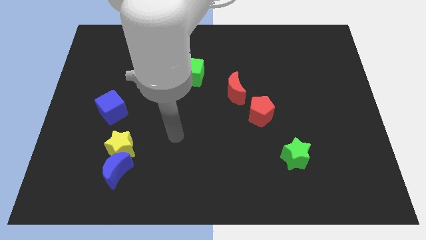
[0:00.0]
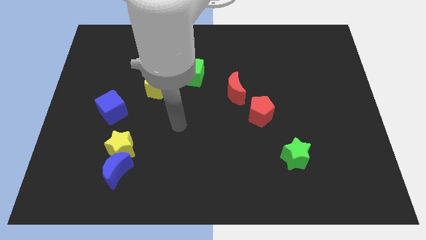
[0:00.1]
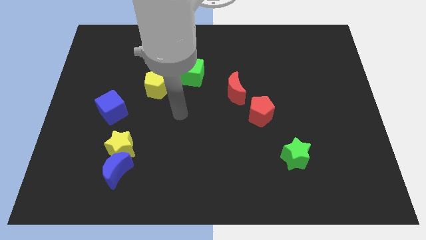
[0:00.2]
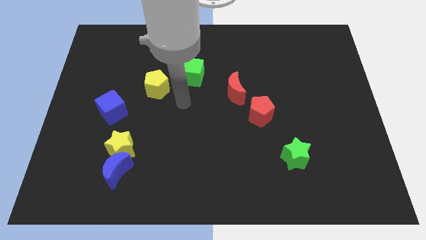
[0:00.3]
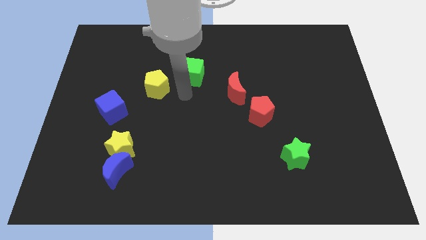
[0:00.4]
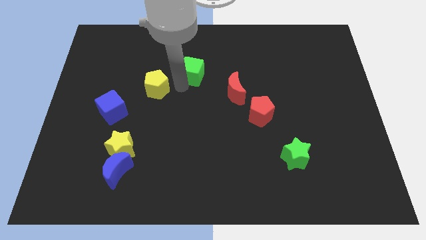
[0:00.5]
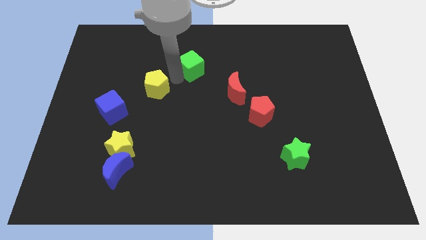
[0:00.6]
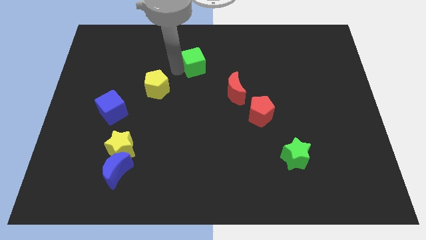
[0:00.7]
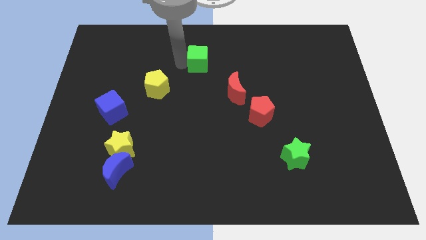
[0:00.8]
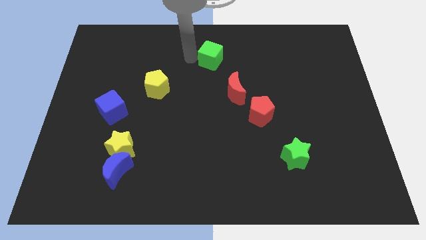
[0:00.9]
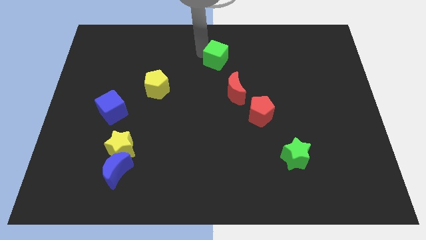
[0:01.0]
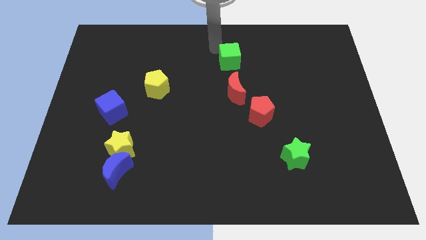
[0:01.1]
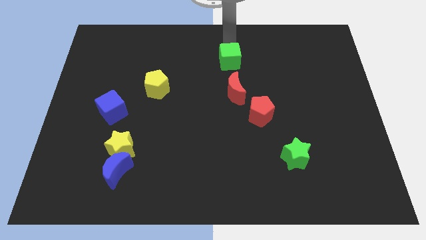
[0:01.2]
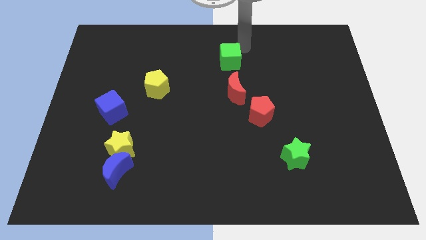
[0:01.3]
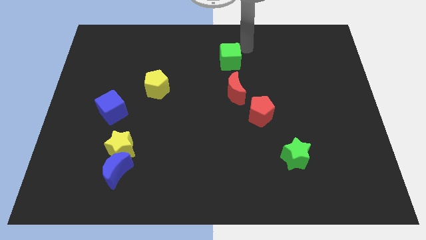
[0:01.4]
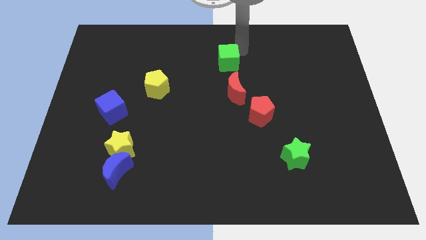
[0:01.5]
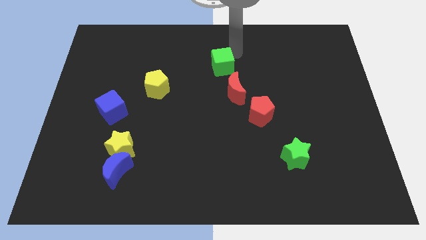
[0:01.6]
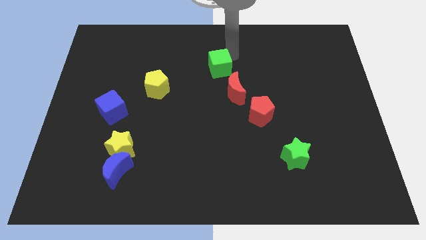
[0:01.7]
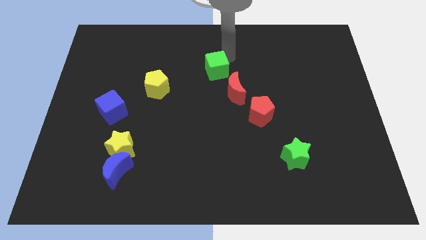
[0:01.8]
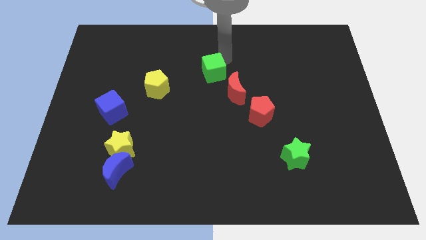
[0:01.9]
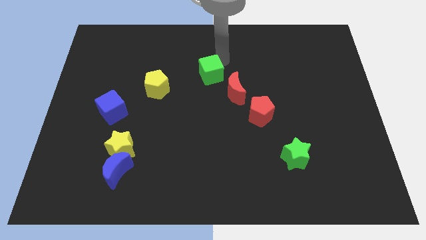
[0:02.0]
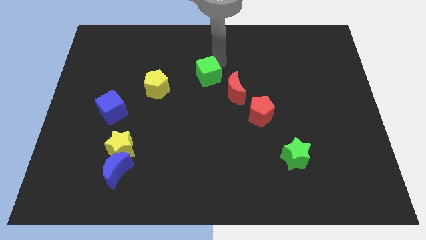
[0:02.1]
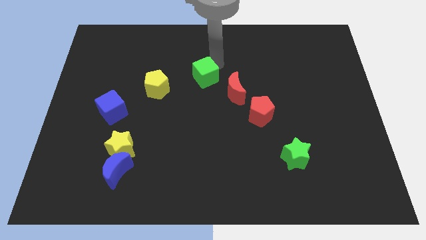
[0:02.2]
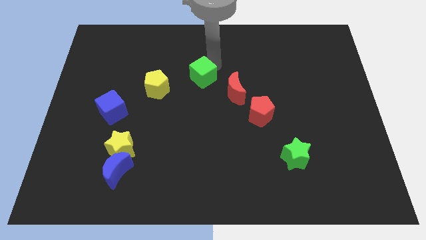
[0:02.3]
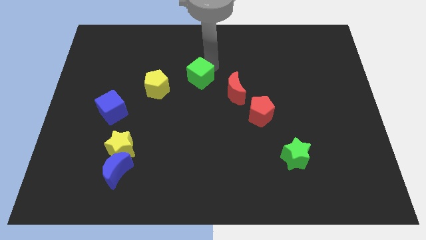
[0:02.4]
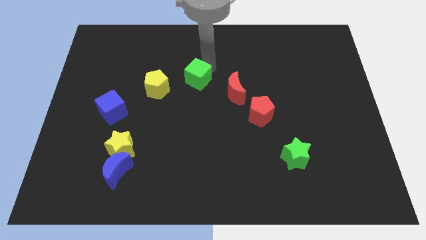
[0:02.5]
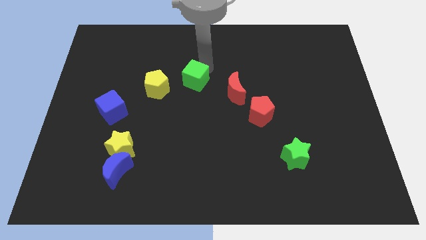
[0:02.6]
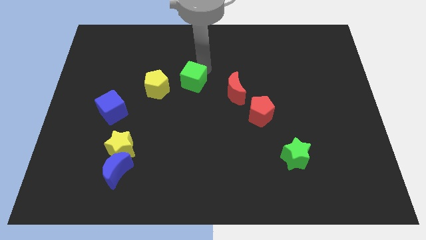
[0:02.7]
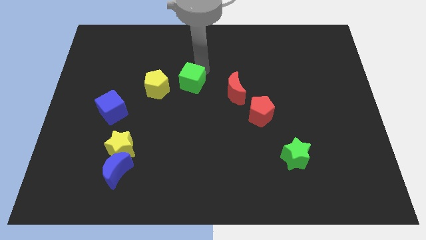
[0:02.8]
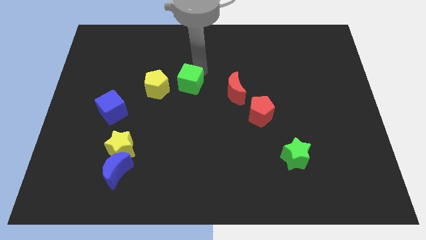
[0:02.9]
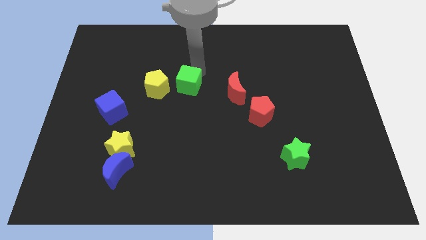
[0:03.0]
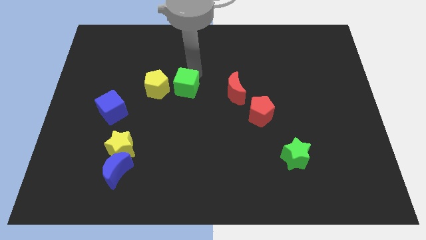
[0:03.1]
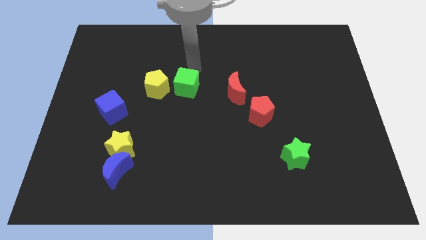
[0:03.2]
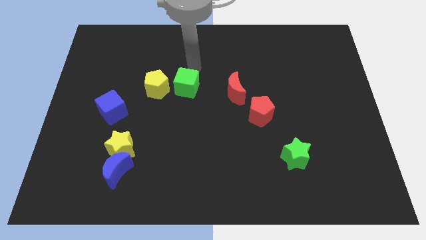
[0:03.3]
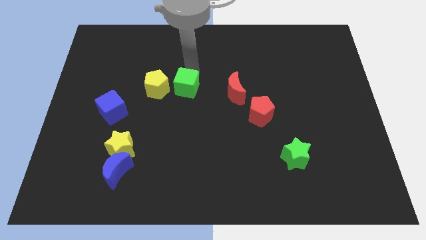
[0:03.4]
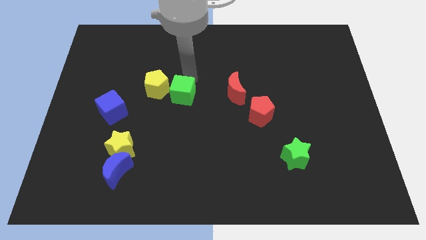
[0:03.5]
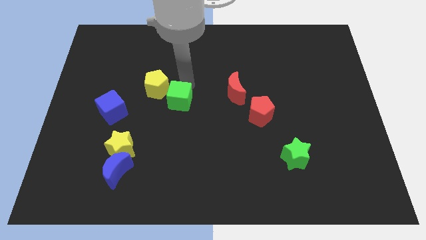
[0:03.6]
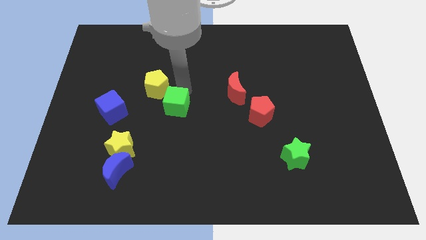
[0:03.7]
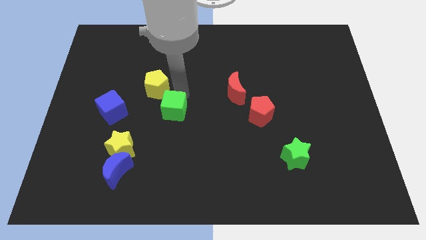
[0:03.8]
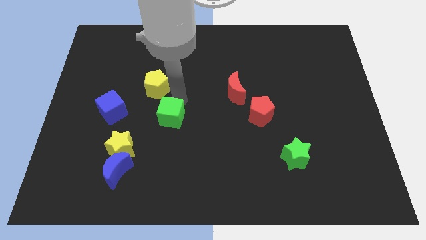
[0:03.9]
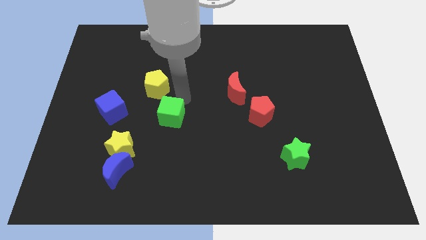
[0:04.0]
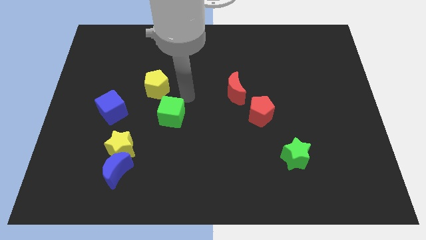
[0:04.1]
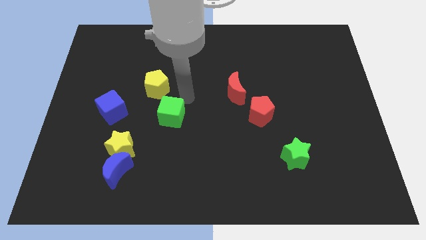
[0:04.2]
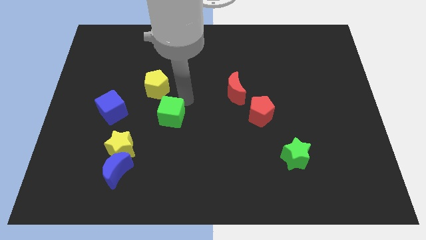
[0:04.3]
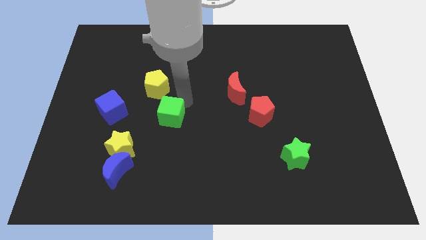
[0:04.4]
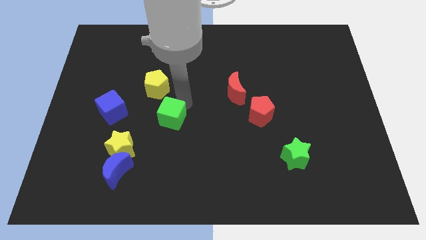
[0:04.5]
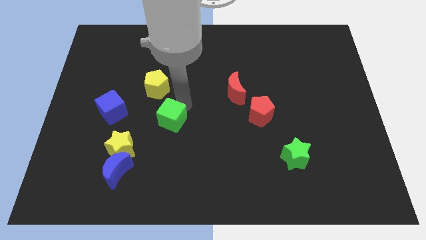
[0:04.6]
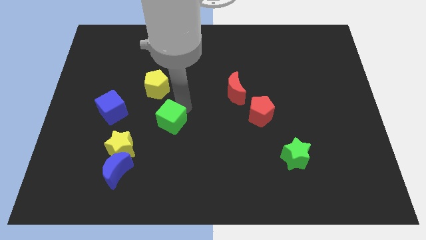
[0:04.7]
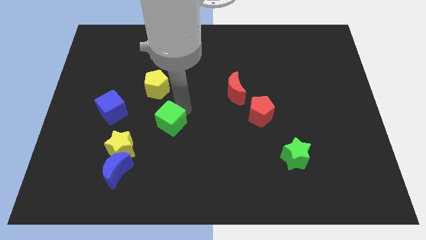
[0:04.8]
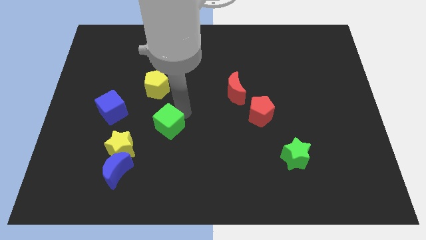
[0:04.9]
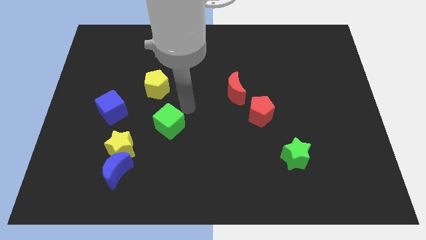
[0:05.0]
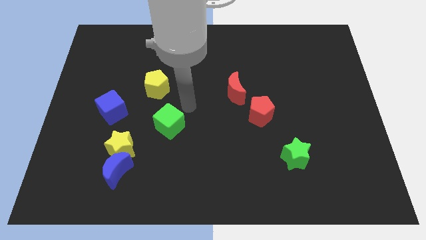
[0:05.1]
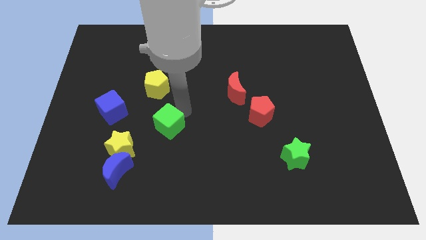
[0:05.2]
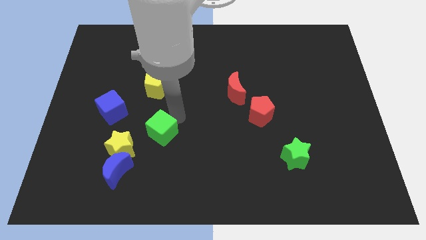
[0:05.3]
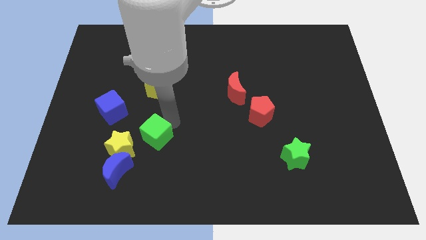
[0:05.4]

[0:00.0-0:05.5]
move the green cube to the top right side of the blue moon

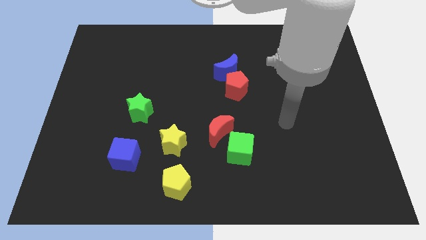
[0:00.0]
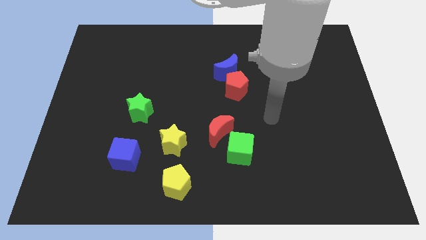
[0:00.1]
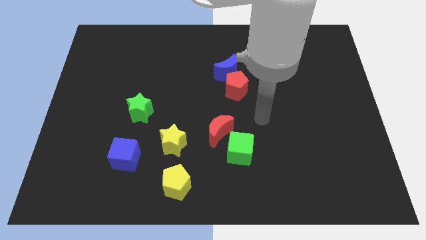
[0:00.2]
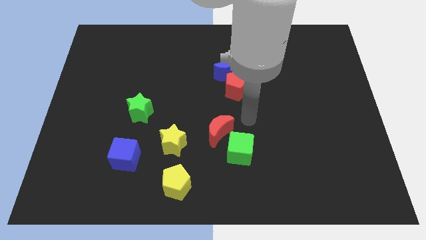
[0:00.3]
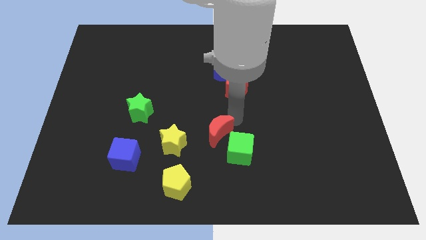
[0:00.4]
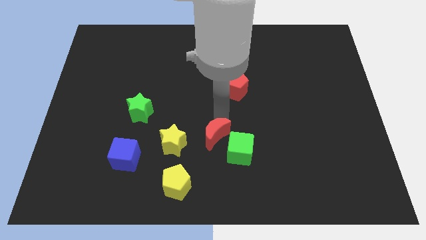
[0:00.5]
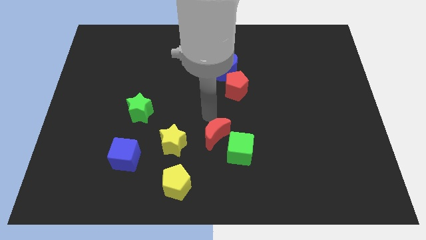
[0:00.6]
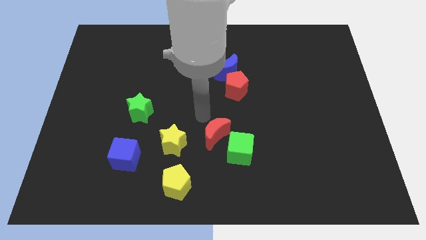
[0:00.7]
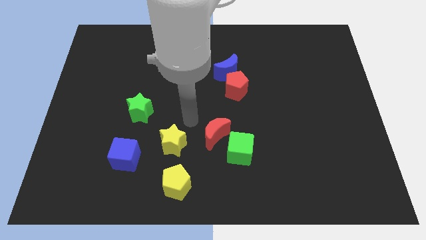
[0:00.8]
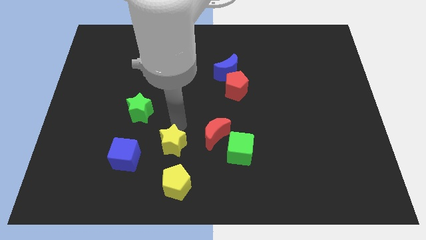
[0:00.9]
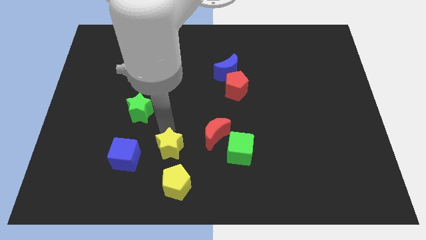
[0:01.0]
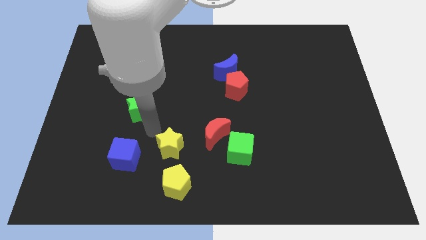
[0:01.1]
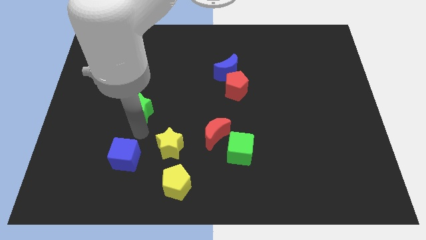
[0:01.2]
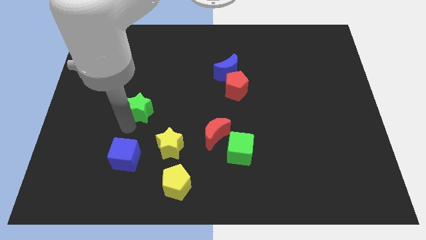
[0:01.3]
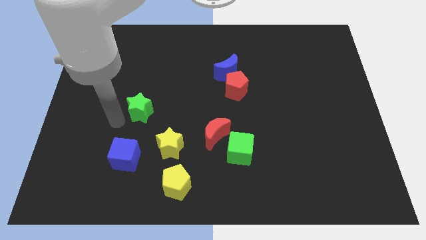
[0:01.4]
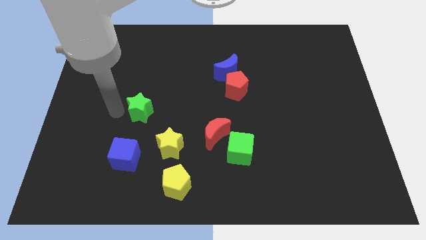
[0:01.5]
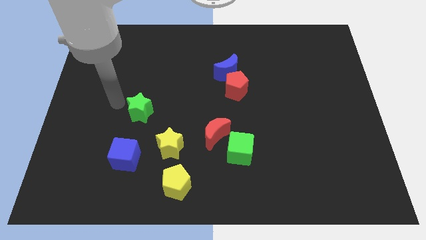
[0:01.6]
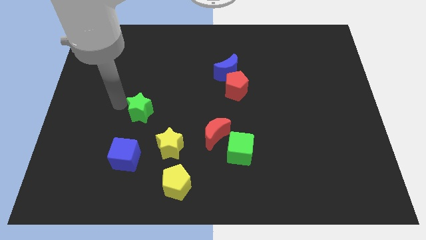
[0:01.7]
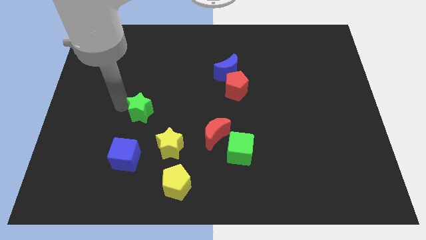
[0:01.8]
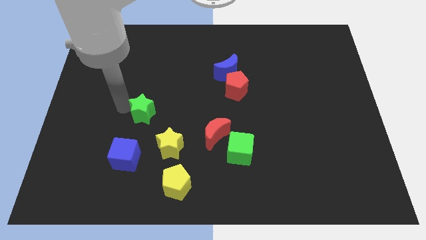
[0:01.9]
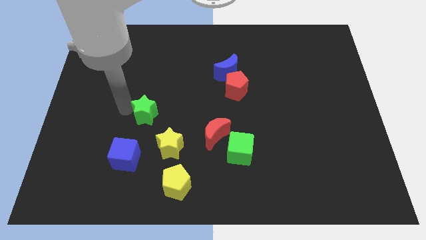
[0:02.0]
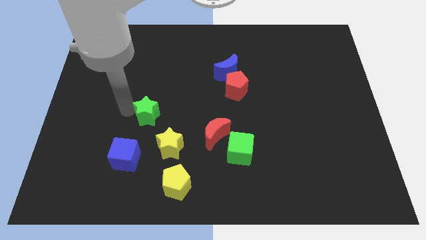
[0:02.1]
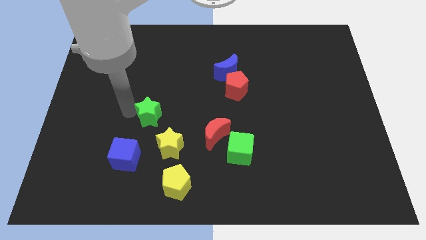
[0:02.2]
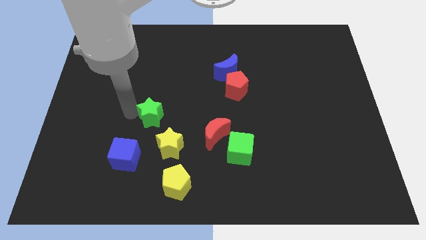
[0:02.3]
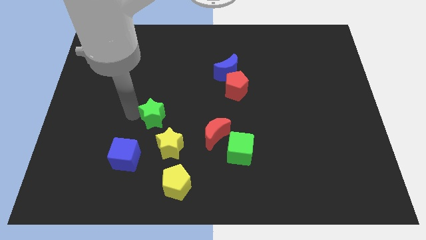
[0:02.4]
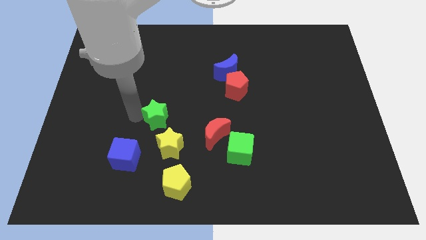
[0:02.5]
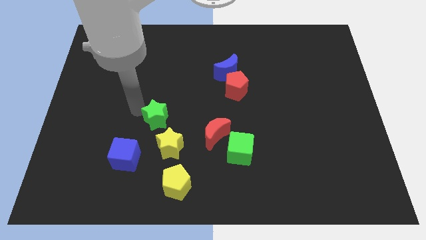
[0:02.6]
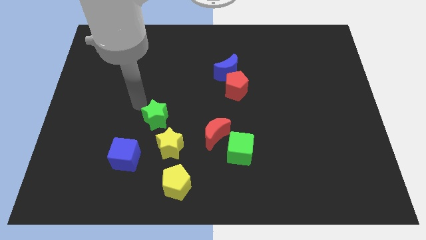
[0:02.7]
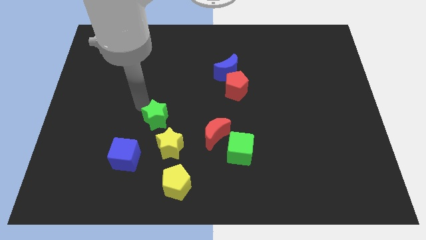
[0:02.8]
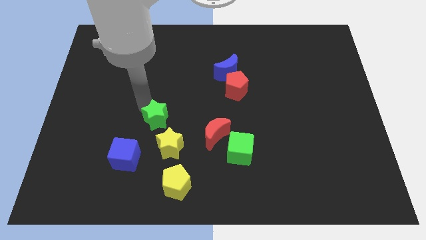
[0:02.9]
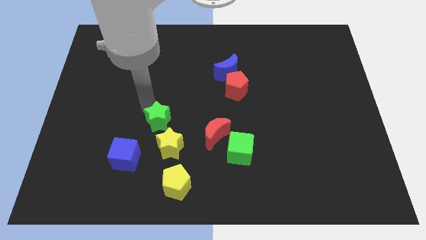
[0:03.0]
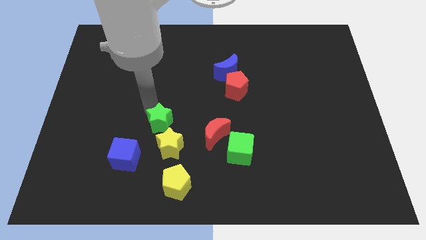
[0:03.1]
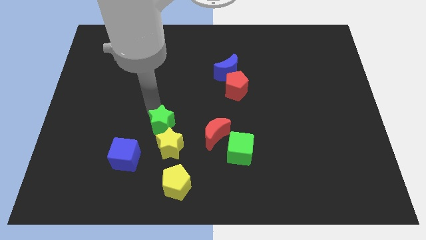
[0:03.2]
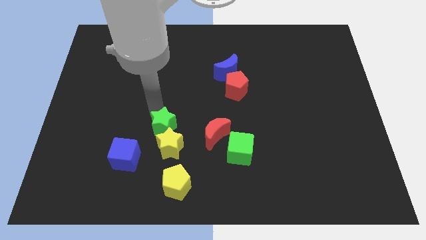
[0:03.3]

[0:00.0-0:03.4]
move the green star above the yellow pentagon
